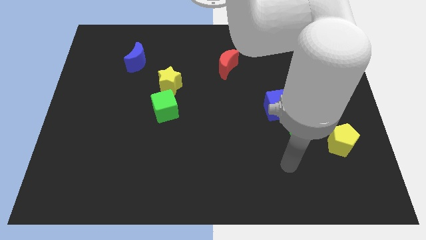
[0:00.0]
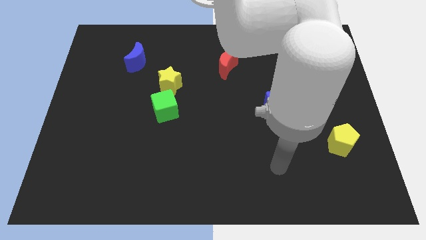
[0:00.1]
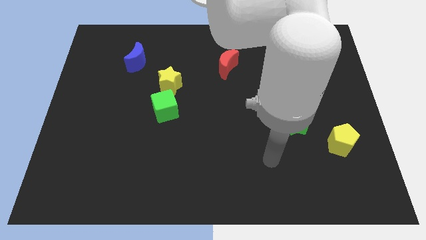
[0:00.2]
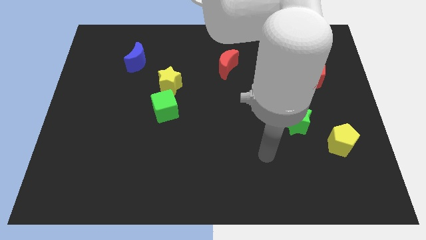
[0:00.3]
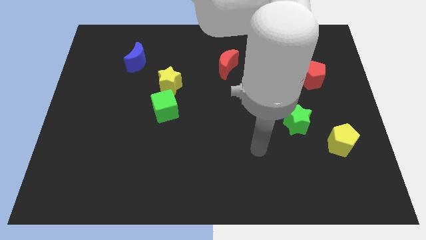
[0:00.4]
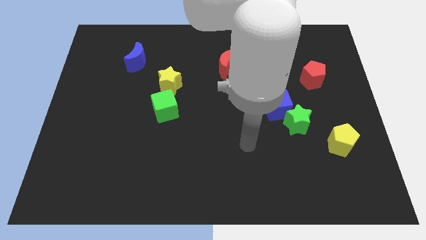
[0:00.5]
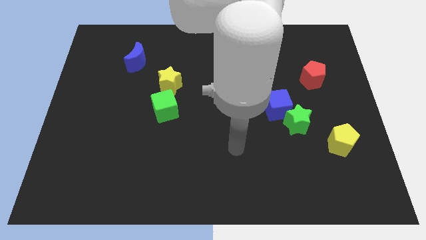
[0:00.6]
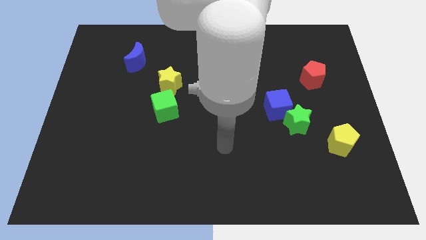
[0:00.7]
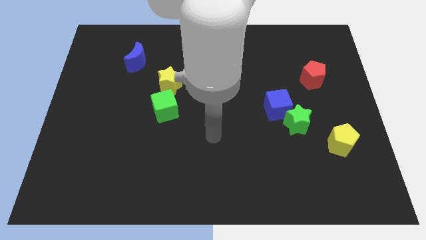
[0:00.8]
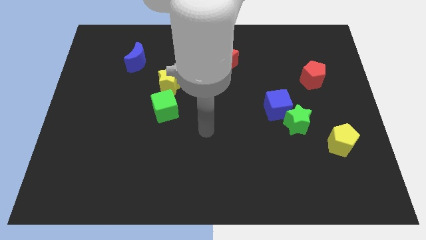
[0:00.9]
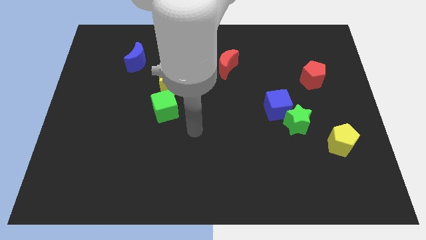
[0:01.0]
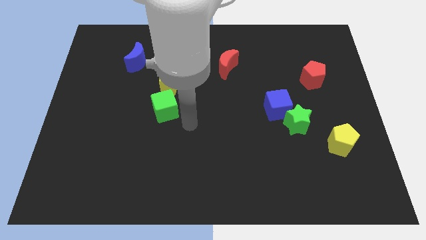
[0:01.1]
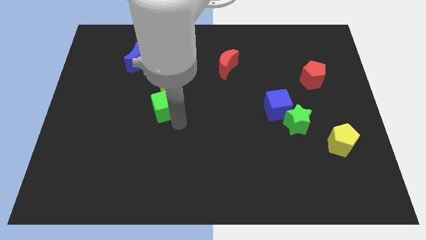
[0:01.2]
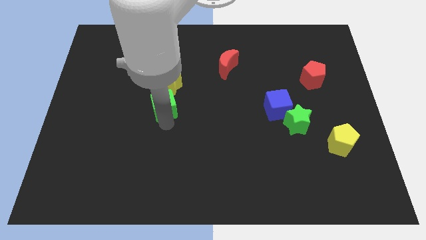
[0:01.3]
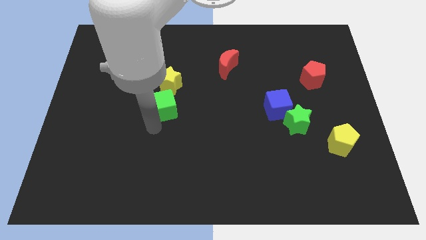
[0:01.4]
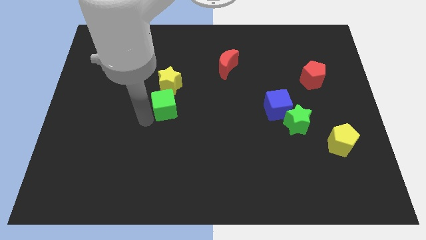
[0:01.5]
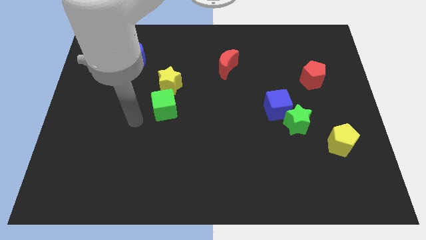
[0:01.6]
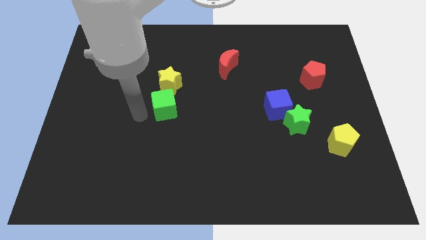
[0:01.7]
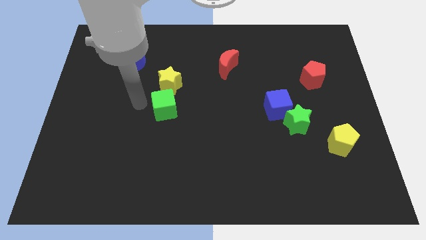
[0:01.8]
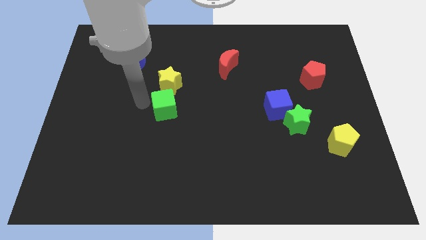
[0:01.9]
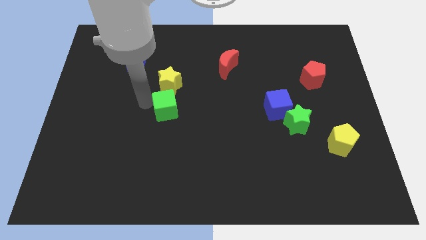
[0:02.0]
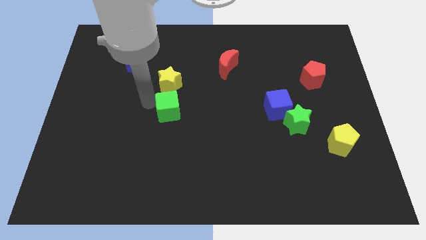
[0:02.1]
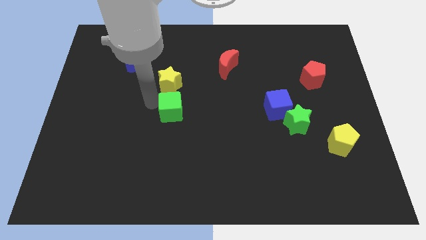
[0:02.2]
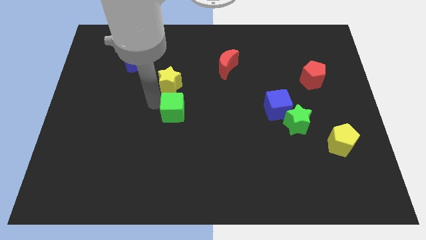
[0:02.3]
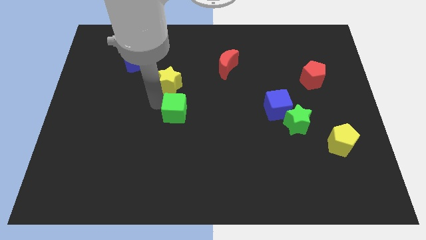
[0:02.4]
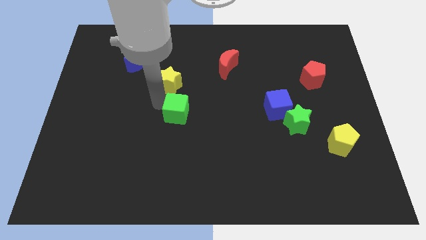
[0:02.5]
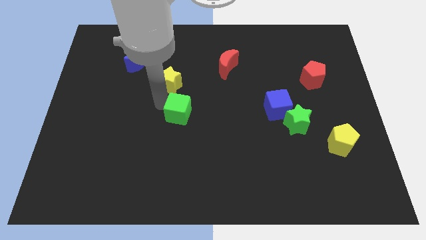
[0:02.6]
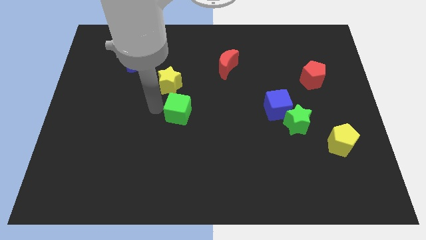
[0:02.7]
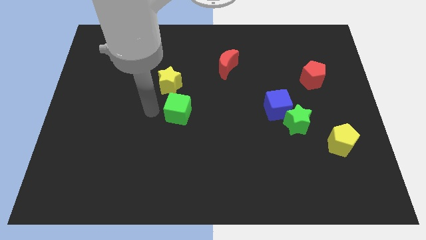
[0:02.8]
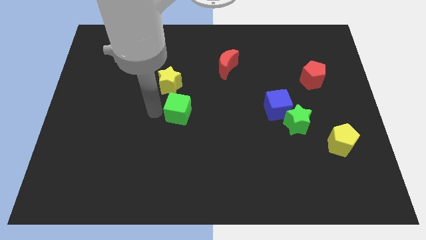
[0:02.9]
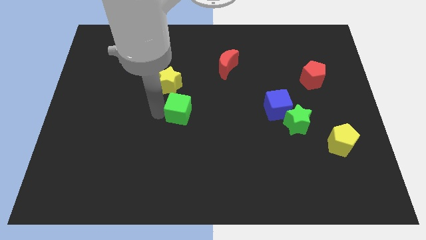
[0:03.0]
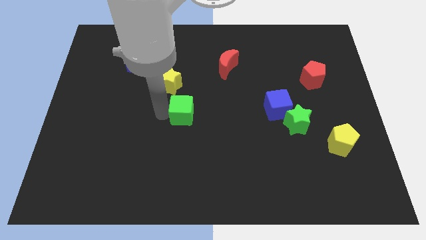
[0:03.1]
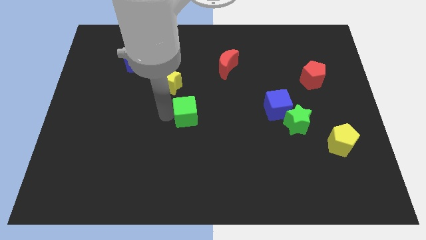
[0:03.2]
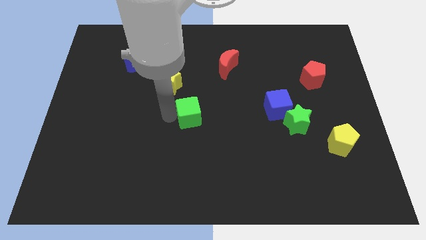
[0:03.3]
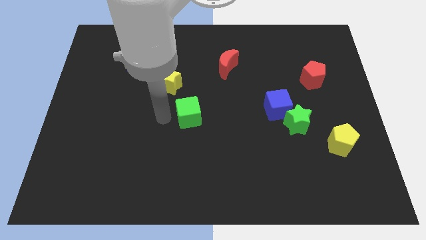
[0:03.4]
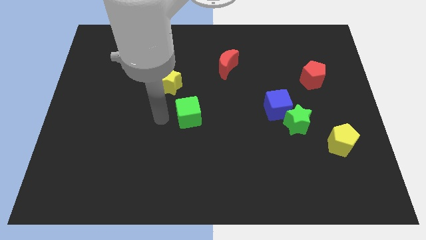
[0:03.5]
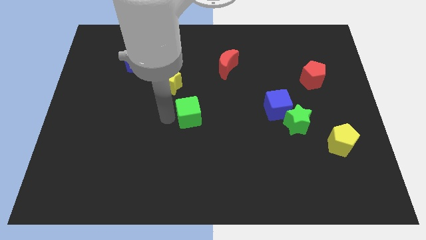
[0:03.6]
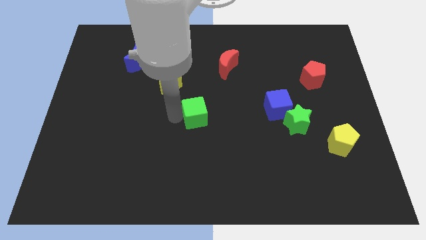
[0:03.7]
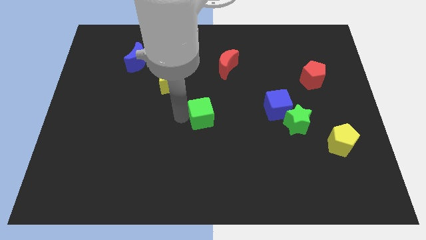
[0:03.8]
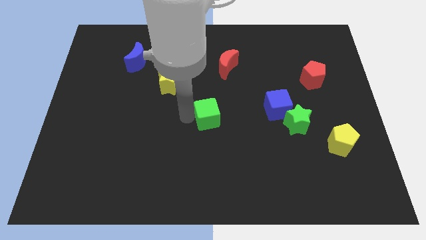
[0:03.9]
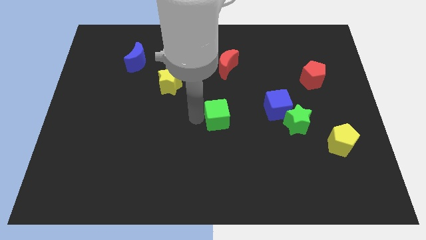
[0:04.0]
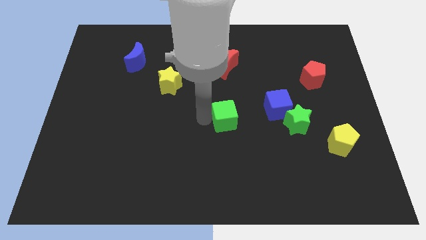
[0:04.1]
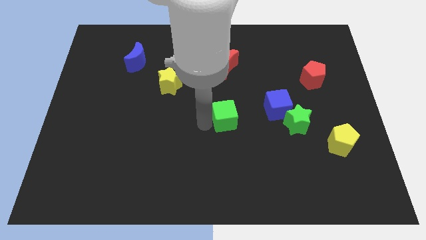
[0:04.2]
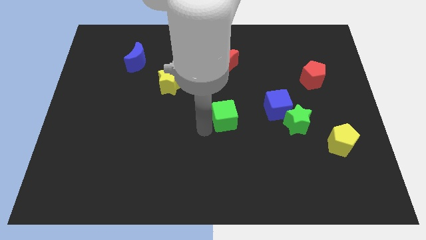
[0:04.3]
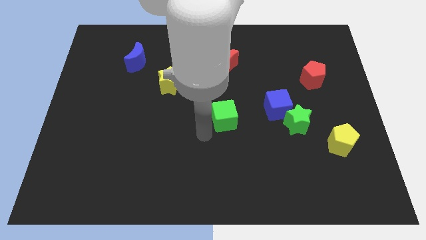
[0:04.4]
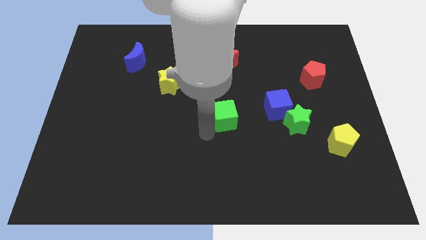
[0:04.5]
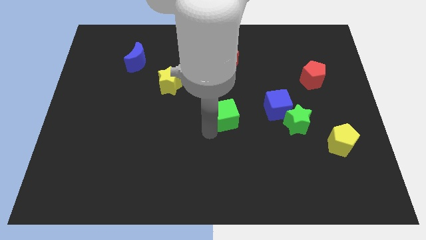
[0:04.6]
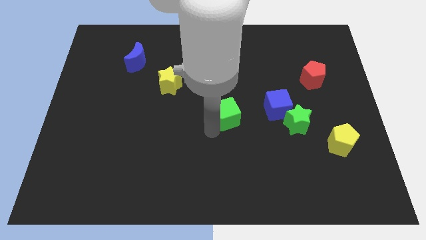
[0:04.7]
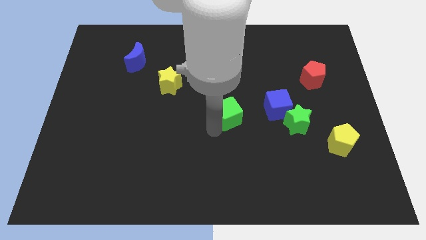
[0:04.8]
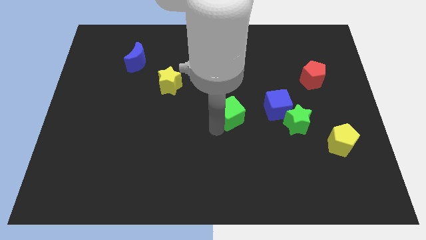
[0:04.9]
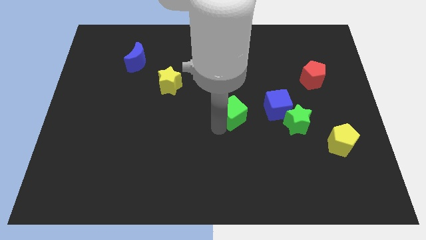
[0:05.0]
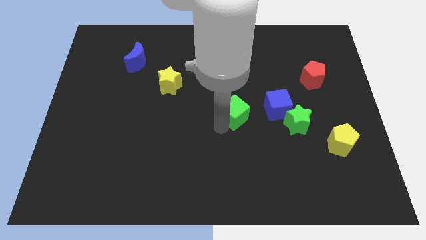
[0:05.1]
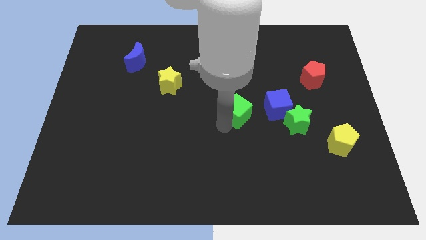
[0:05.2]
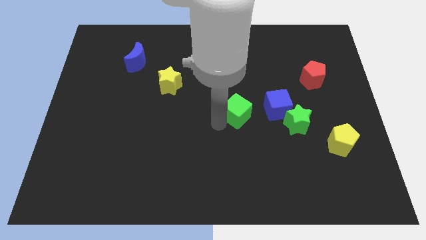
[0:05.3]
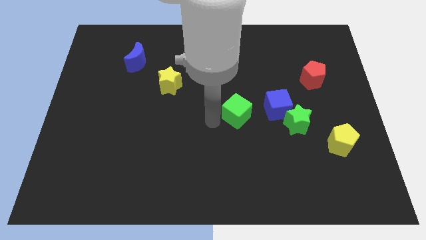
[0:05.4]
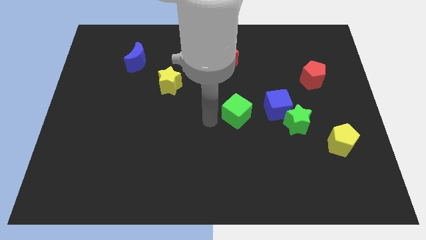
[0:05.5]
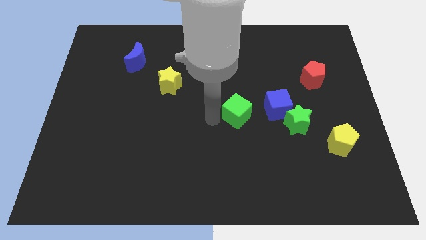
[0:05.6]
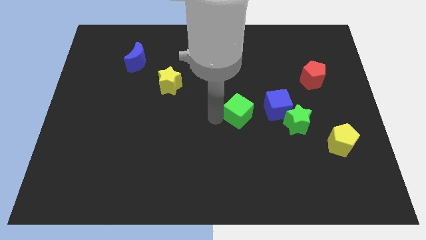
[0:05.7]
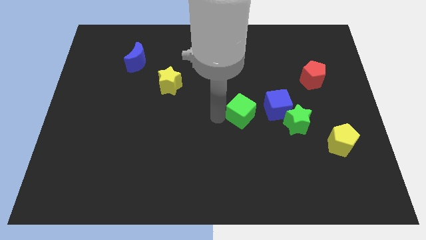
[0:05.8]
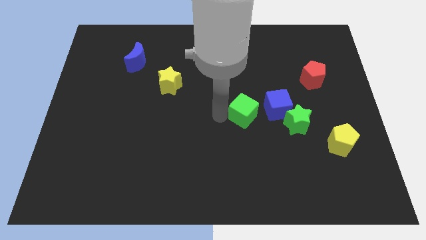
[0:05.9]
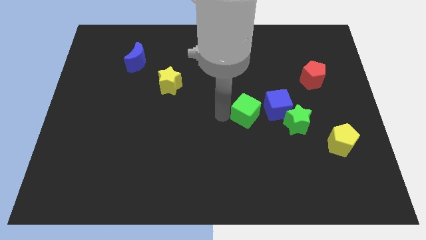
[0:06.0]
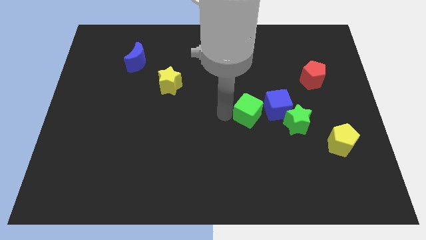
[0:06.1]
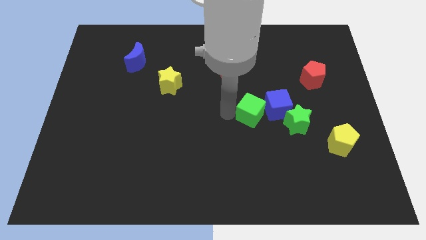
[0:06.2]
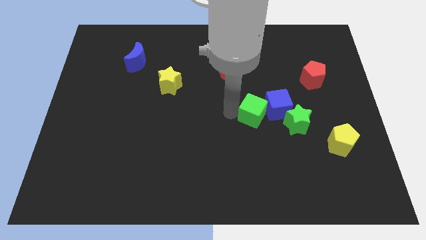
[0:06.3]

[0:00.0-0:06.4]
slide the green cube next to the blue cube
